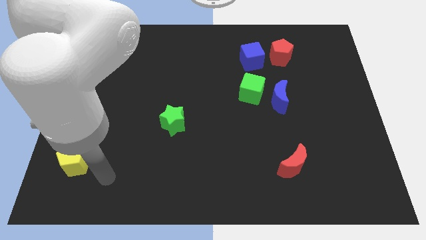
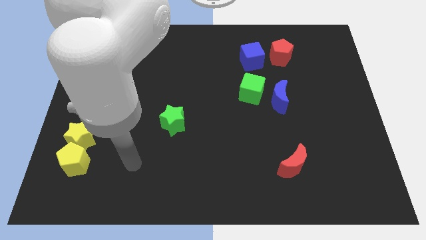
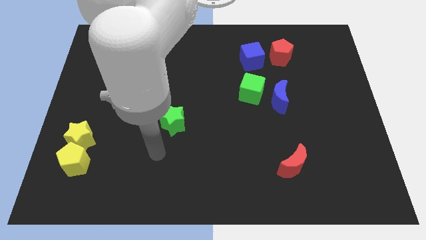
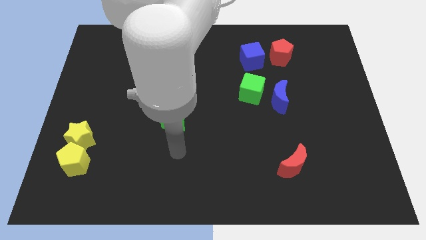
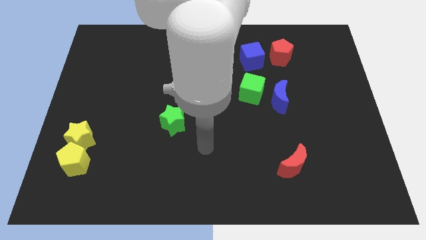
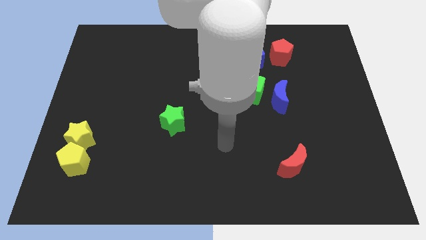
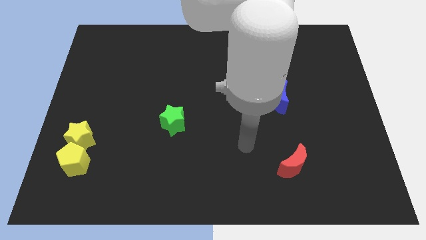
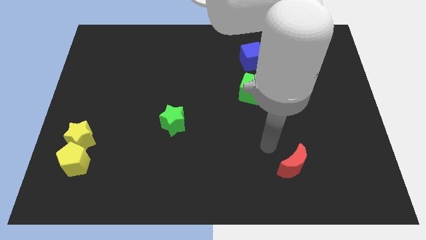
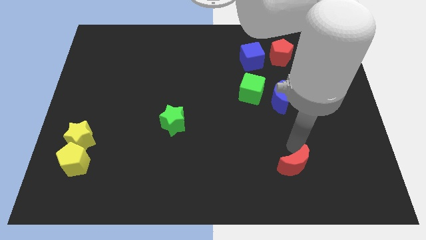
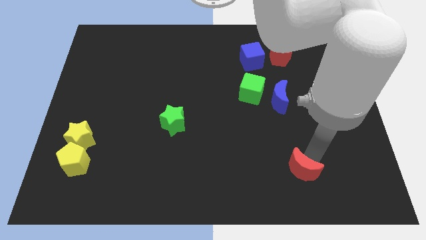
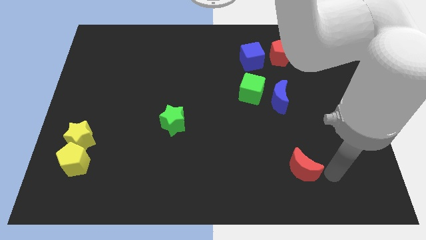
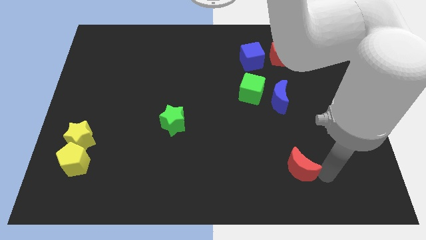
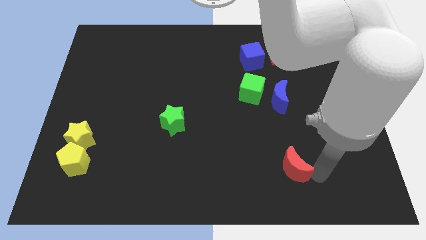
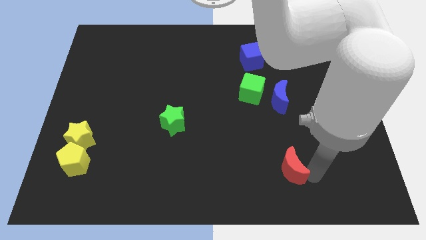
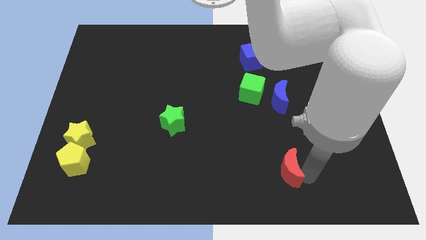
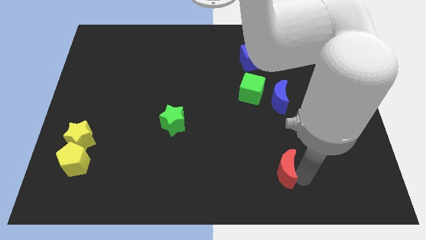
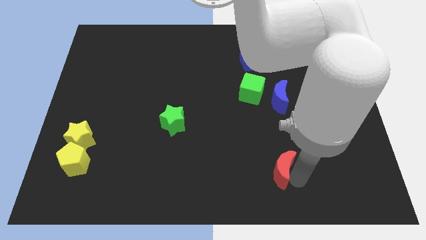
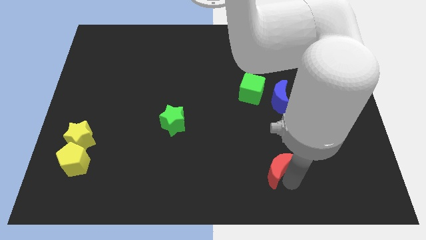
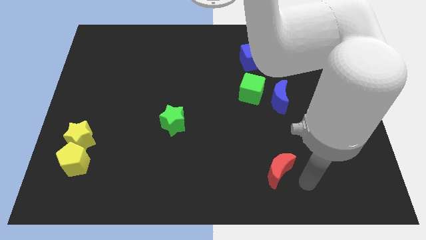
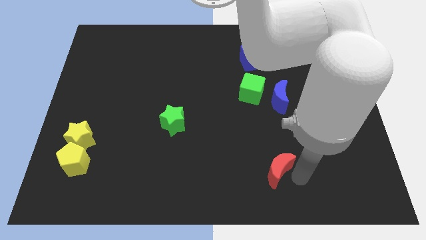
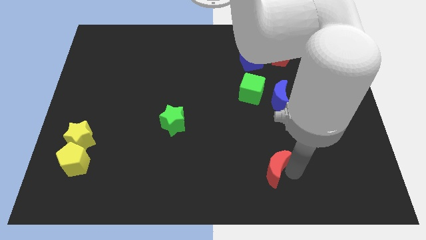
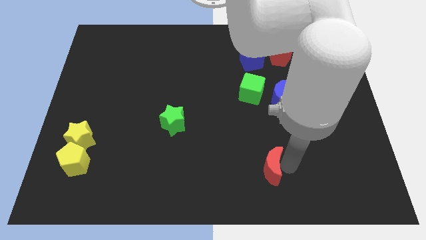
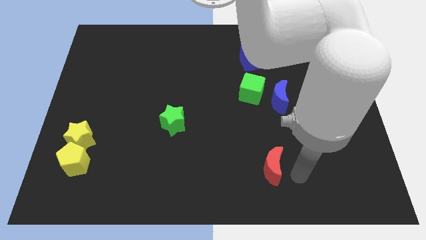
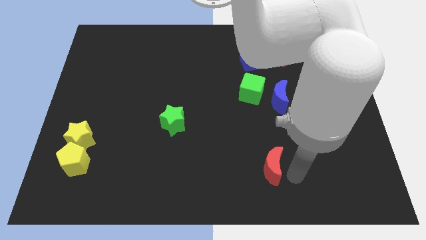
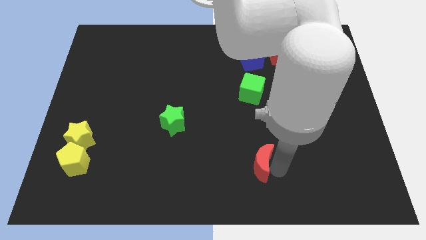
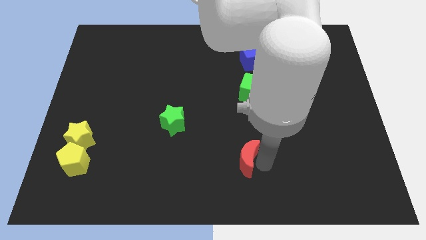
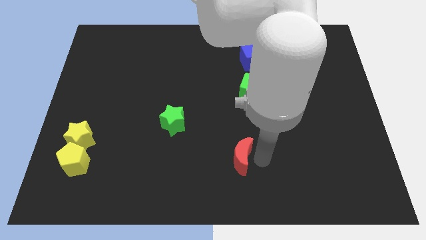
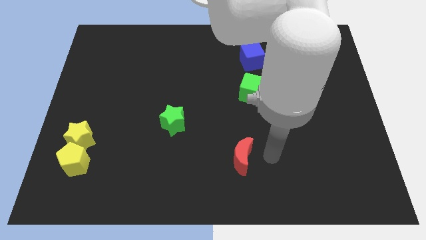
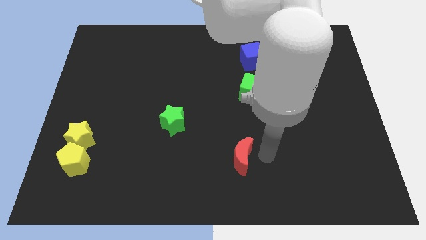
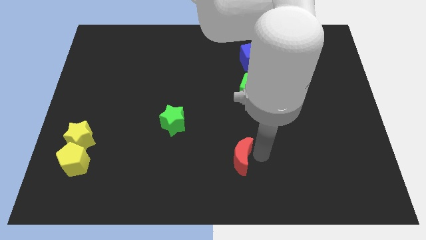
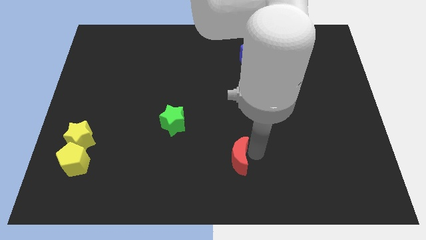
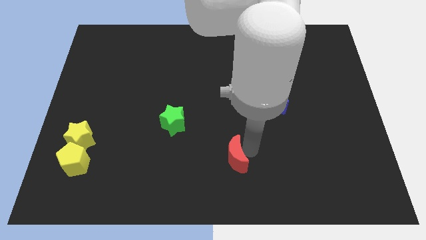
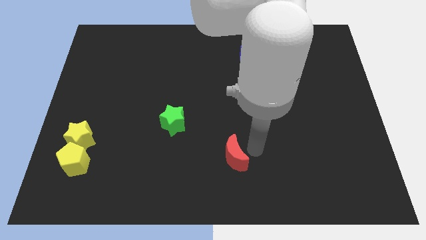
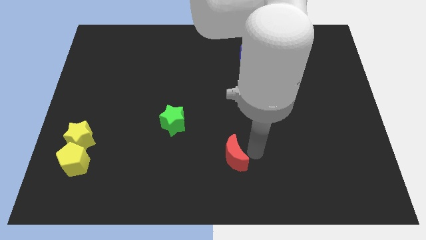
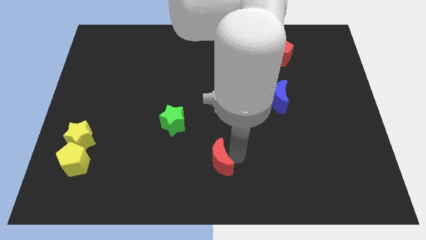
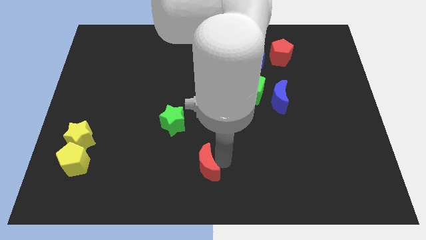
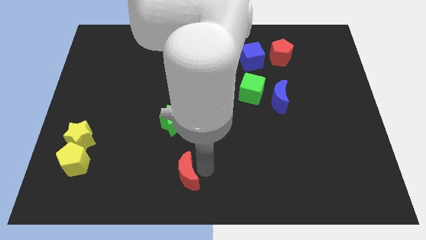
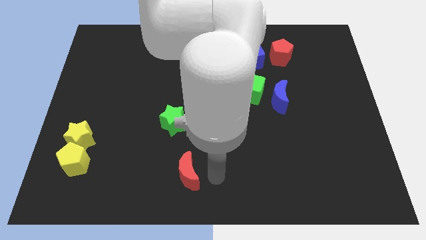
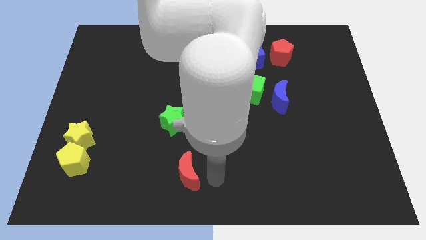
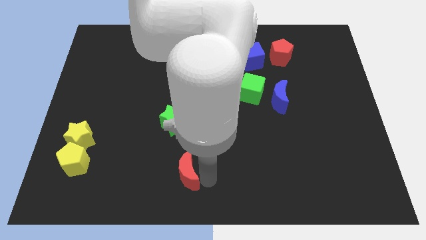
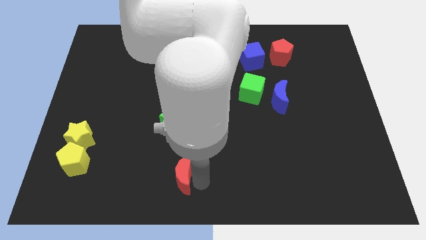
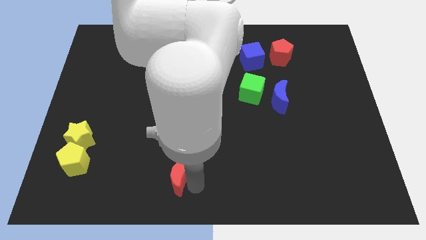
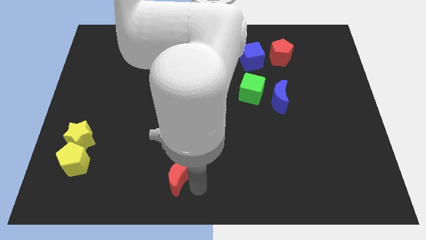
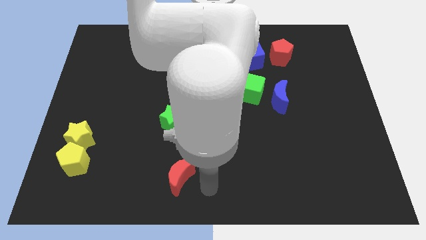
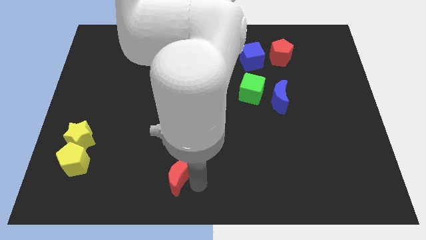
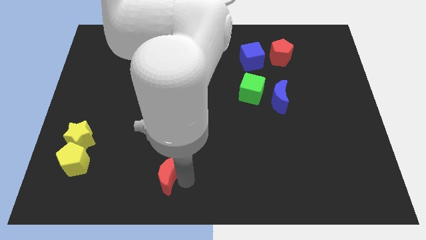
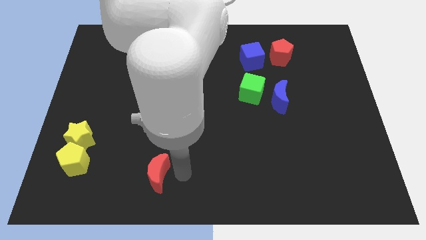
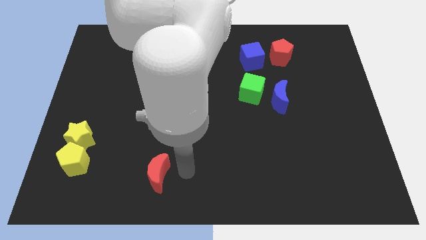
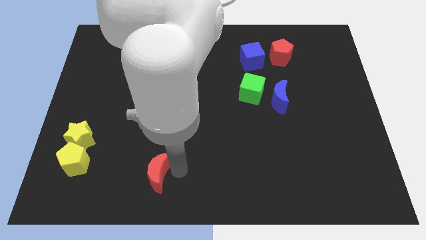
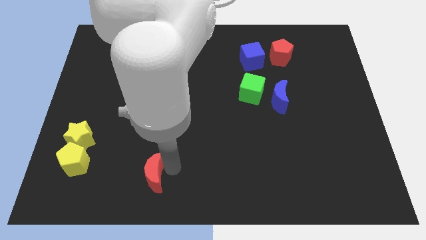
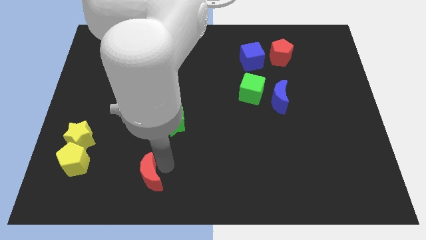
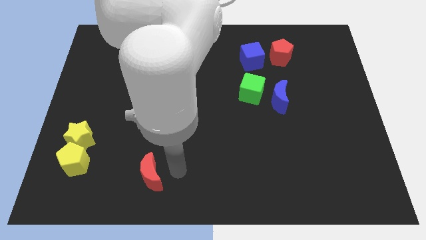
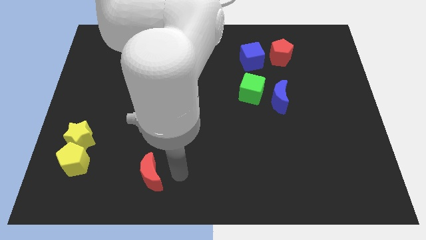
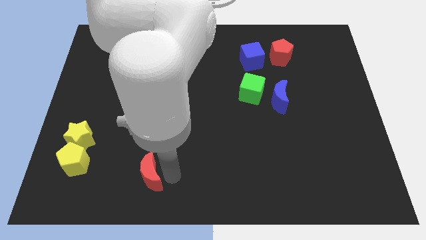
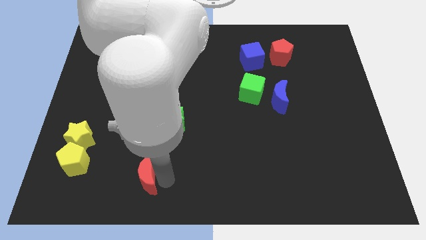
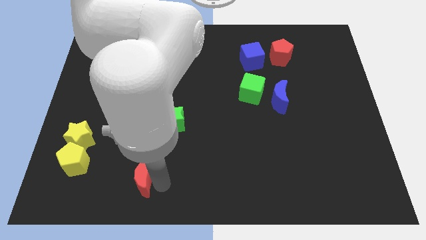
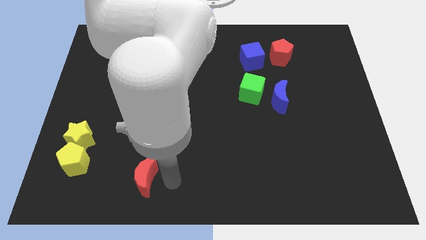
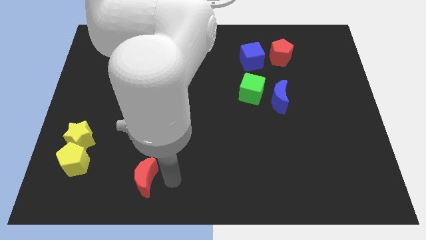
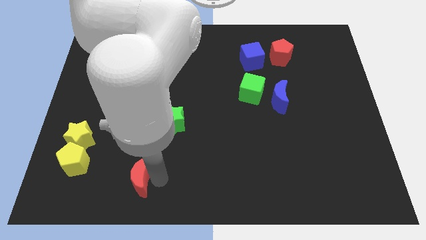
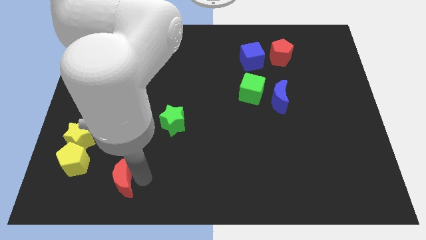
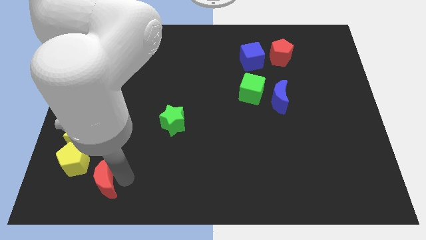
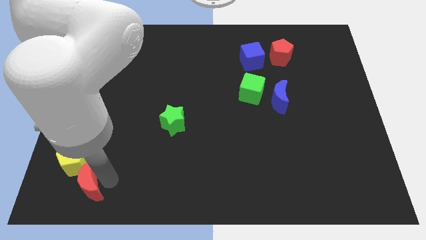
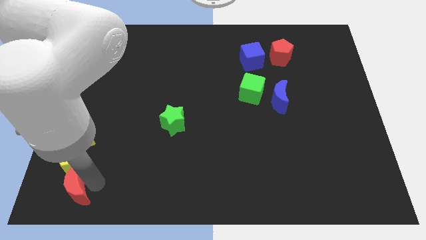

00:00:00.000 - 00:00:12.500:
move the red moon to the bottom left
